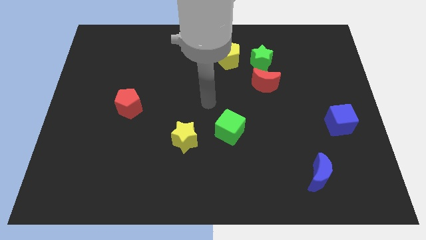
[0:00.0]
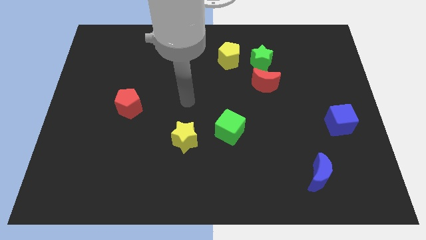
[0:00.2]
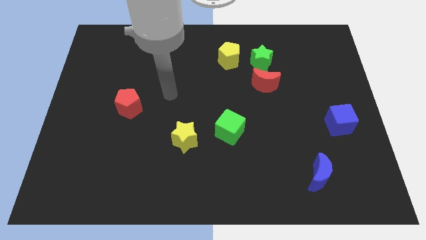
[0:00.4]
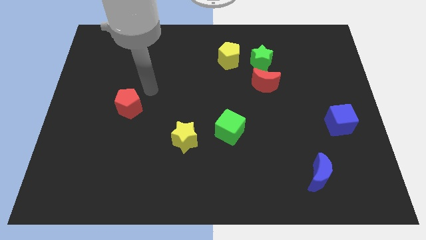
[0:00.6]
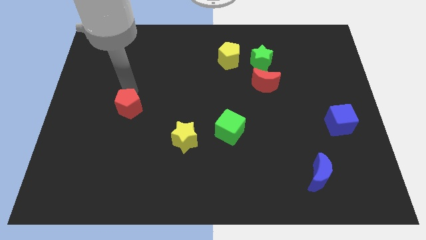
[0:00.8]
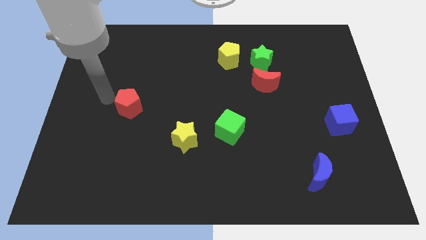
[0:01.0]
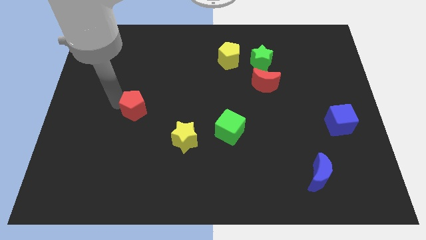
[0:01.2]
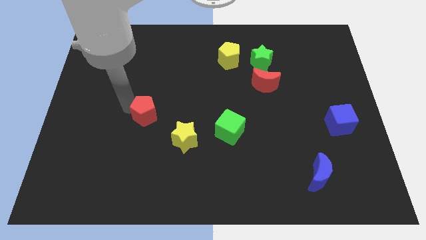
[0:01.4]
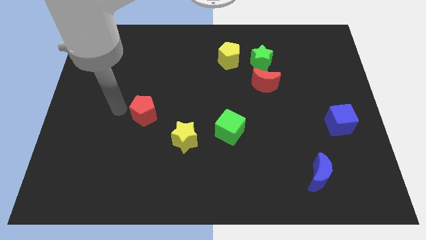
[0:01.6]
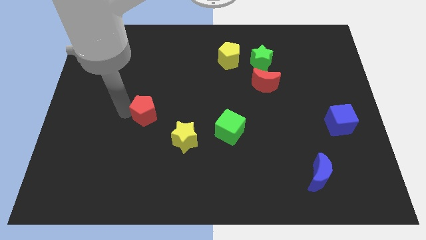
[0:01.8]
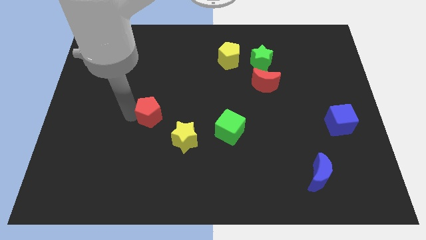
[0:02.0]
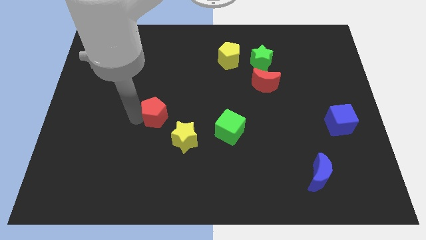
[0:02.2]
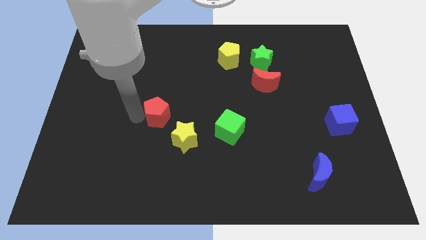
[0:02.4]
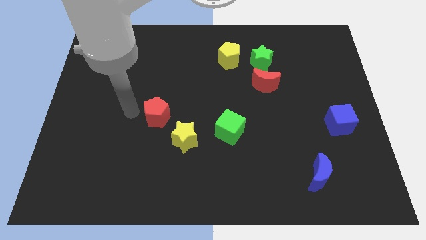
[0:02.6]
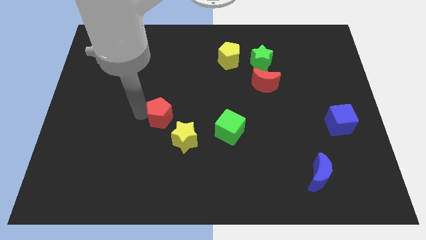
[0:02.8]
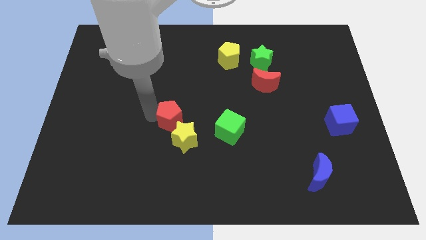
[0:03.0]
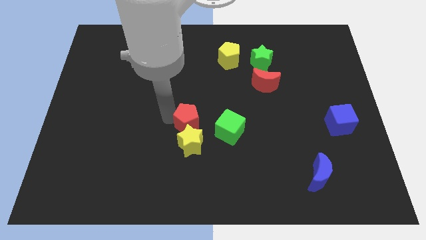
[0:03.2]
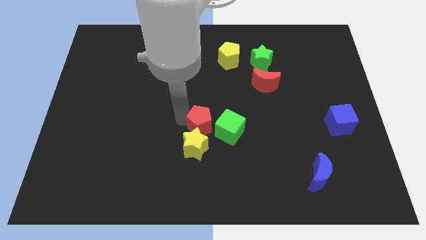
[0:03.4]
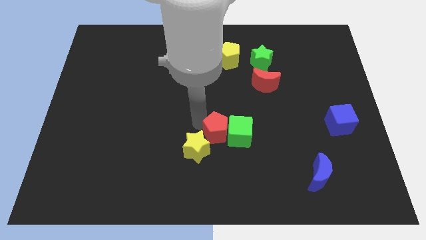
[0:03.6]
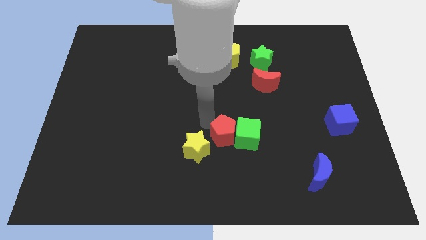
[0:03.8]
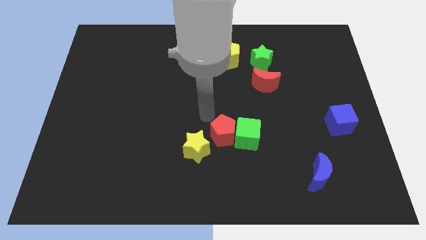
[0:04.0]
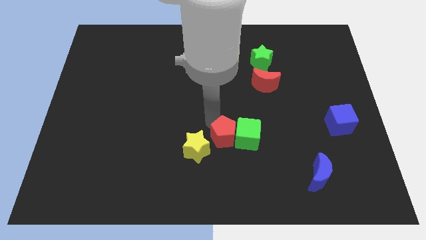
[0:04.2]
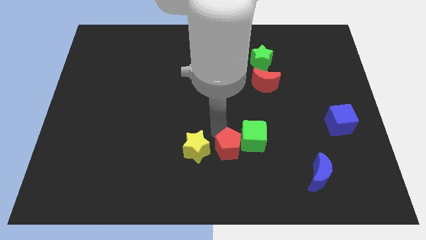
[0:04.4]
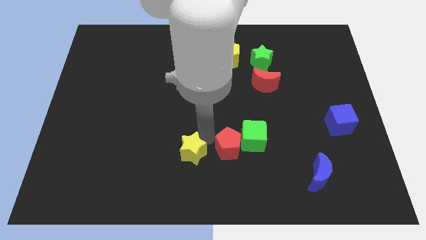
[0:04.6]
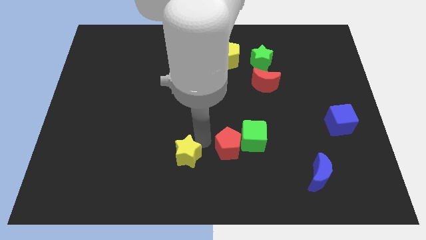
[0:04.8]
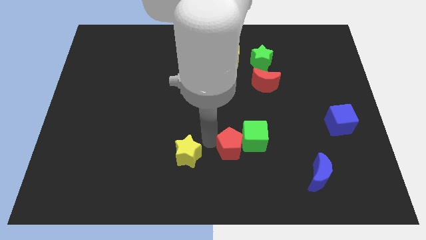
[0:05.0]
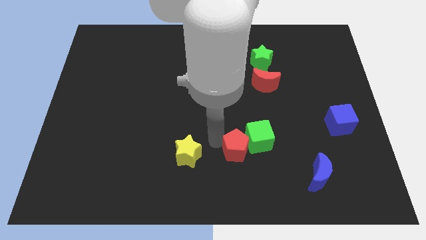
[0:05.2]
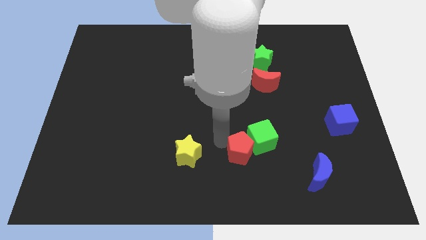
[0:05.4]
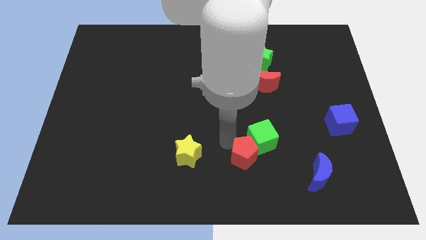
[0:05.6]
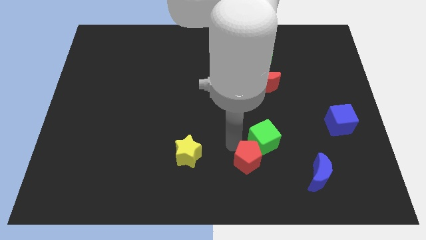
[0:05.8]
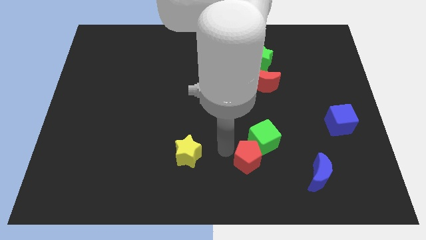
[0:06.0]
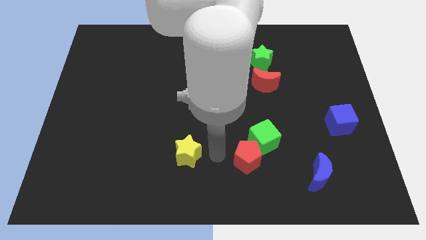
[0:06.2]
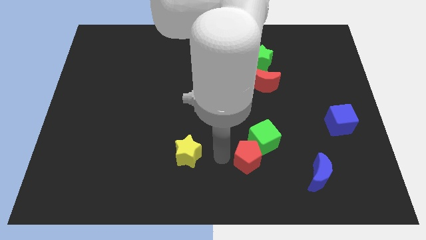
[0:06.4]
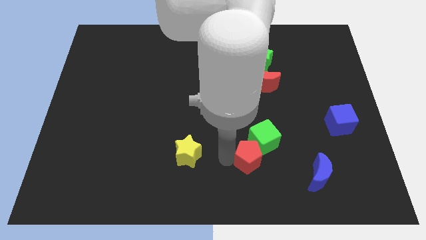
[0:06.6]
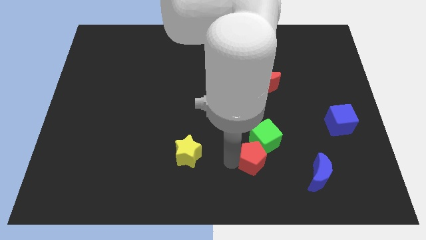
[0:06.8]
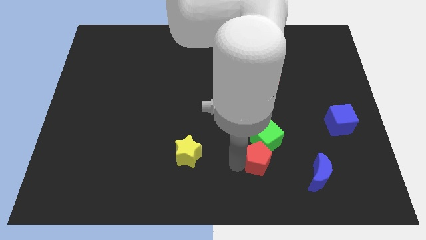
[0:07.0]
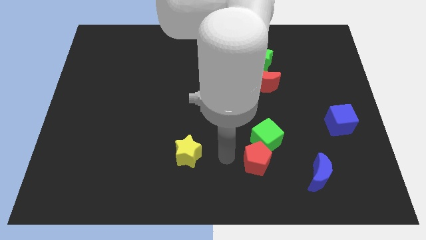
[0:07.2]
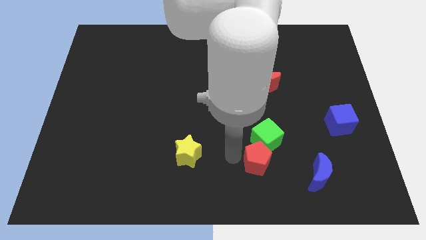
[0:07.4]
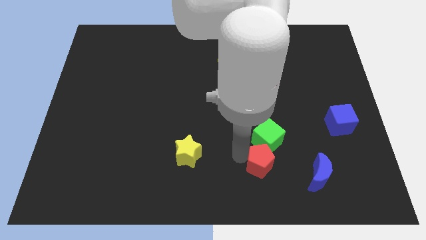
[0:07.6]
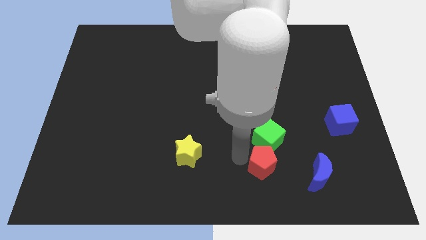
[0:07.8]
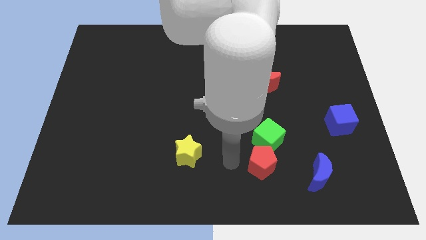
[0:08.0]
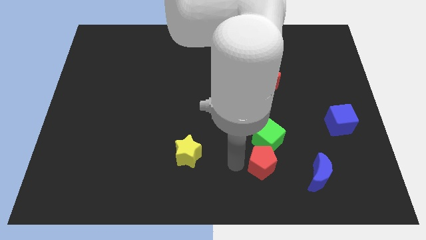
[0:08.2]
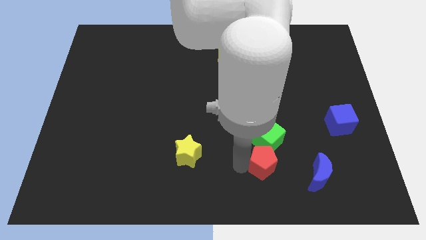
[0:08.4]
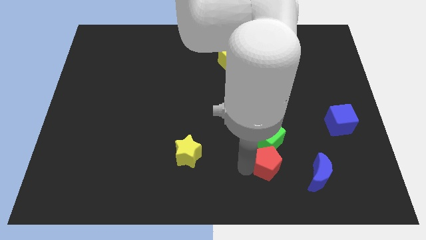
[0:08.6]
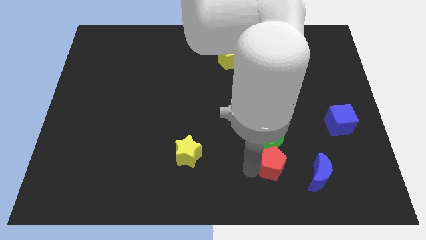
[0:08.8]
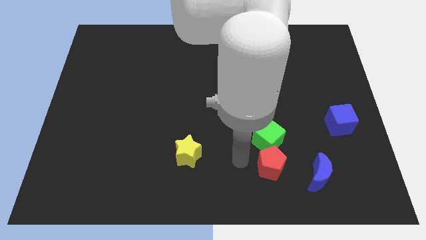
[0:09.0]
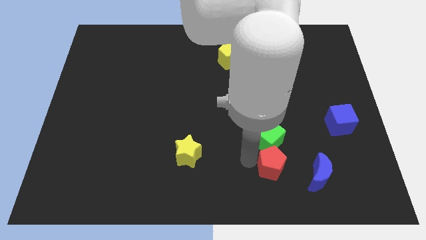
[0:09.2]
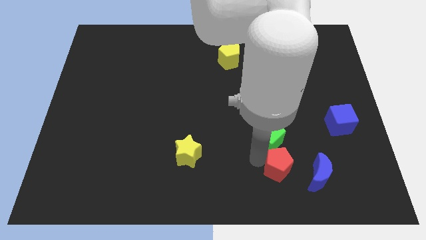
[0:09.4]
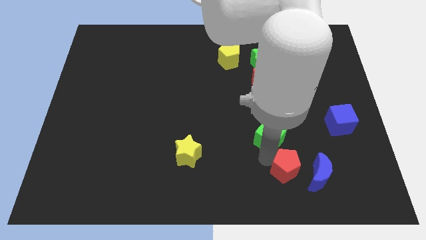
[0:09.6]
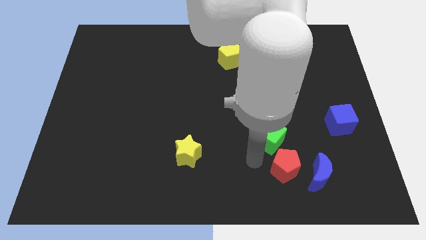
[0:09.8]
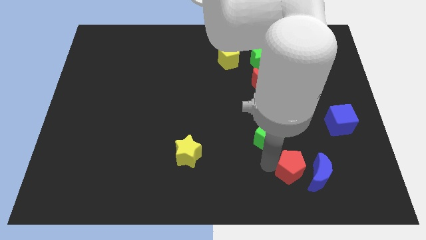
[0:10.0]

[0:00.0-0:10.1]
put the red pentagon close to the blue moon

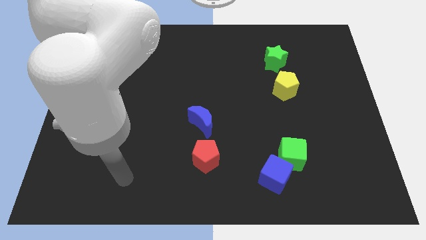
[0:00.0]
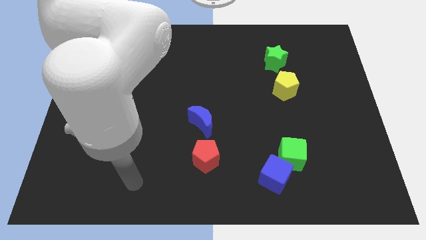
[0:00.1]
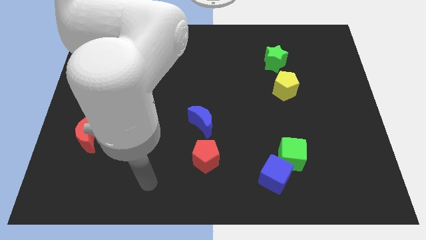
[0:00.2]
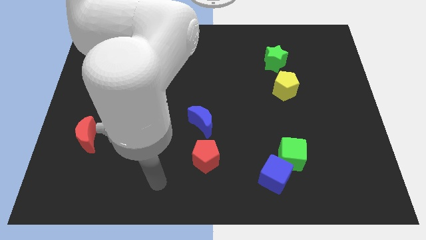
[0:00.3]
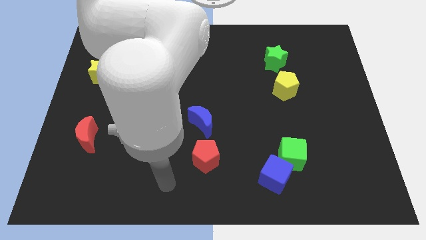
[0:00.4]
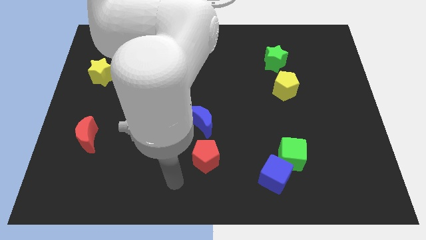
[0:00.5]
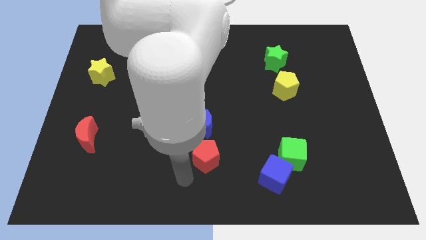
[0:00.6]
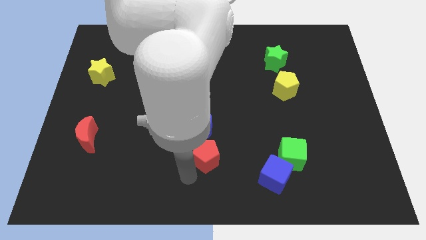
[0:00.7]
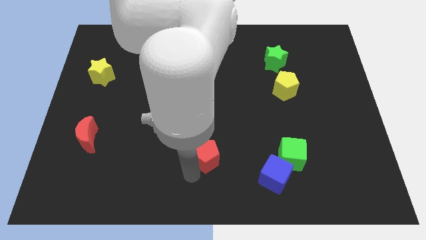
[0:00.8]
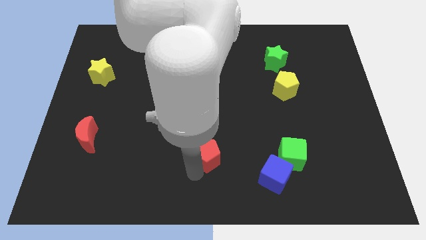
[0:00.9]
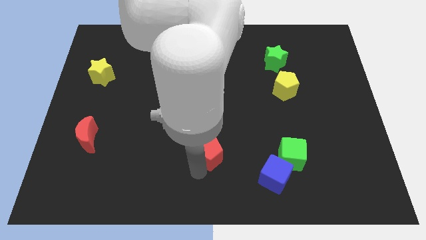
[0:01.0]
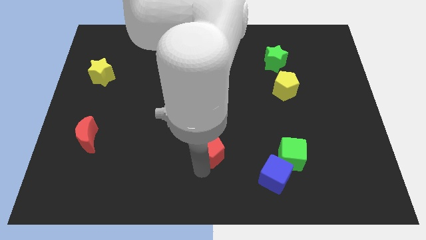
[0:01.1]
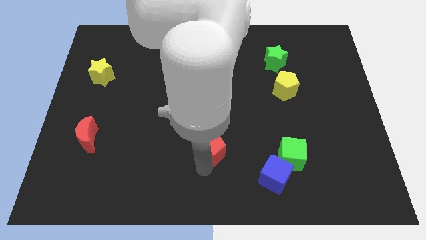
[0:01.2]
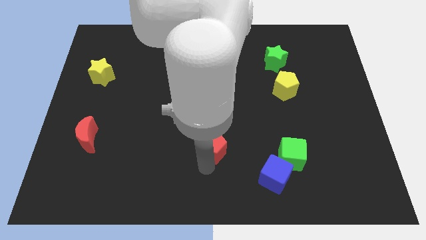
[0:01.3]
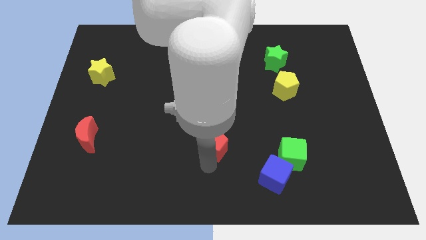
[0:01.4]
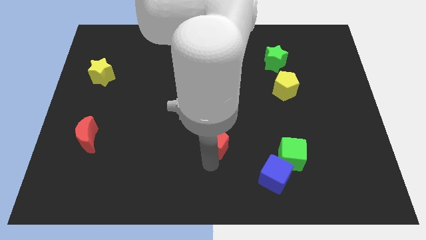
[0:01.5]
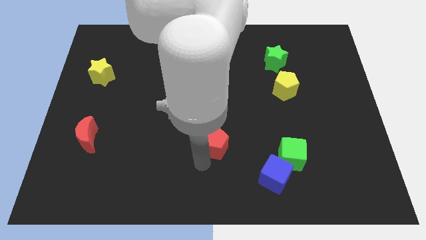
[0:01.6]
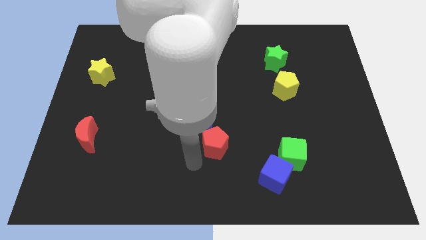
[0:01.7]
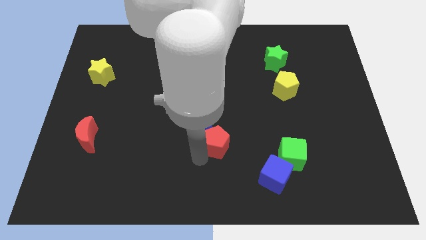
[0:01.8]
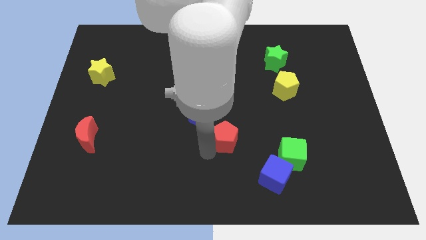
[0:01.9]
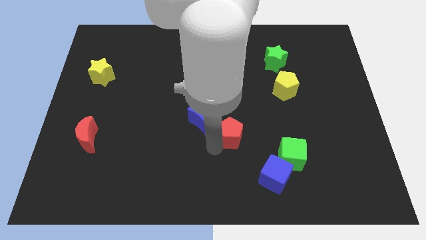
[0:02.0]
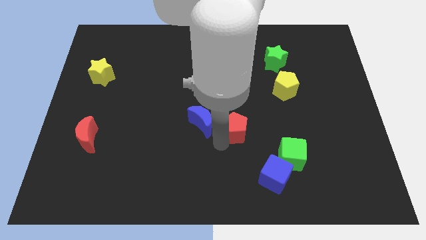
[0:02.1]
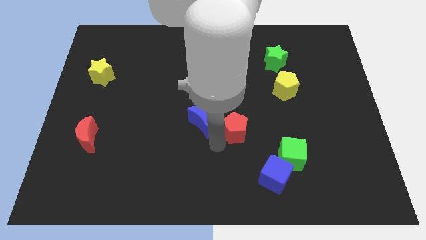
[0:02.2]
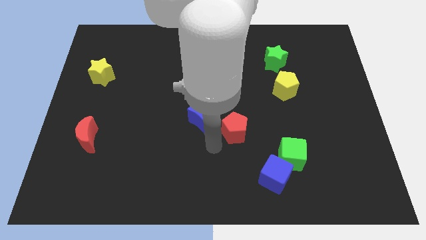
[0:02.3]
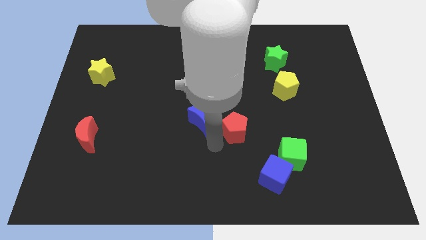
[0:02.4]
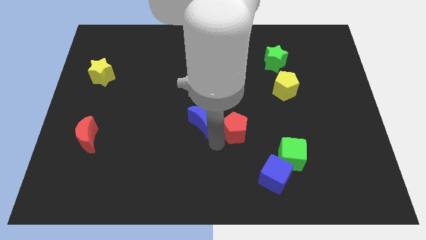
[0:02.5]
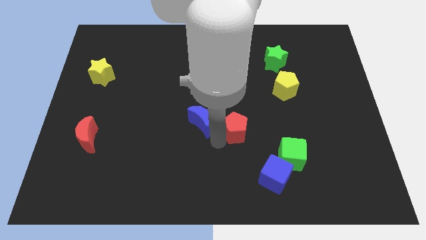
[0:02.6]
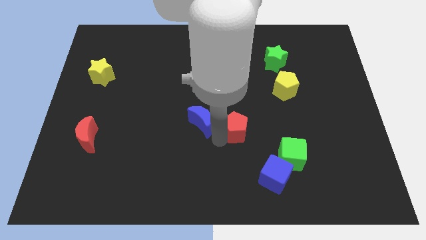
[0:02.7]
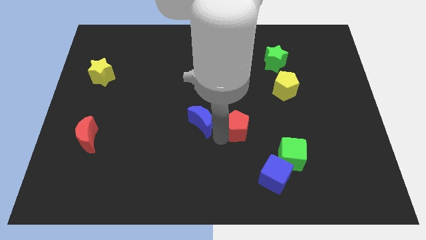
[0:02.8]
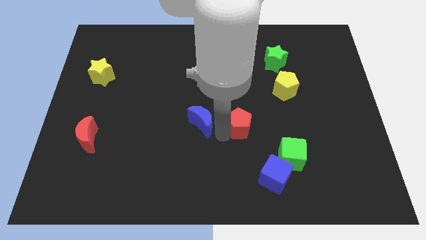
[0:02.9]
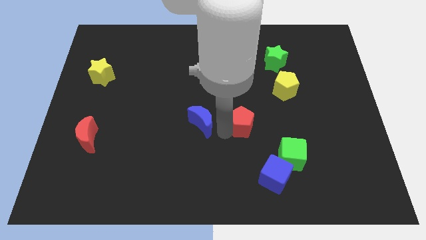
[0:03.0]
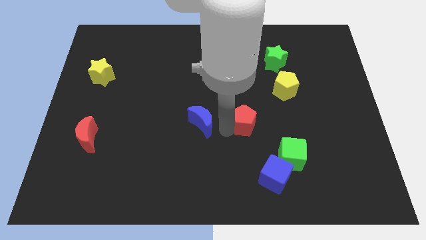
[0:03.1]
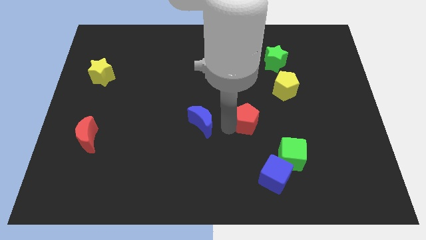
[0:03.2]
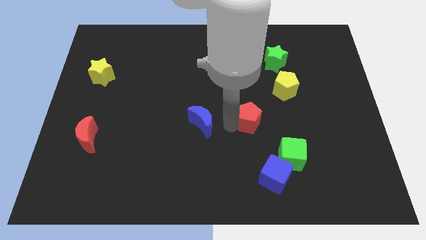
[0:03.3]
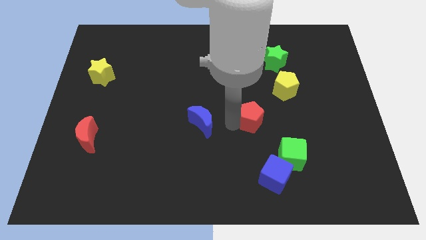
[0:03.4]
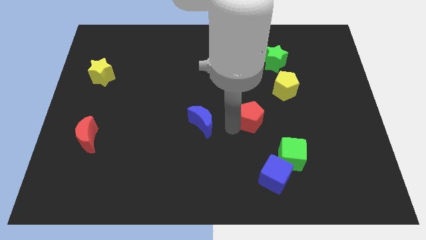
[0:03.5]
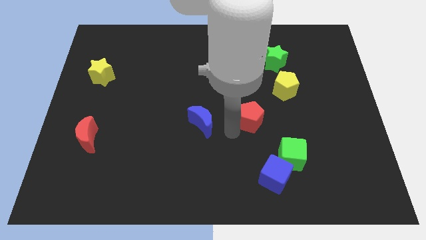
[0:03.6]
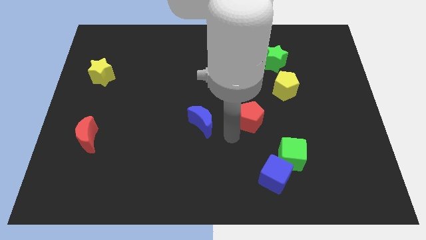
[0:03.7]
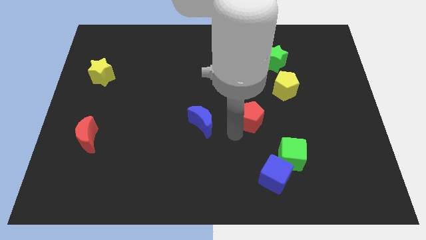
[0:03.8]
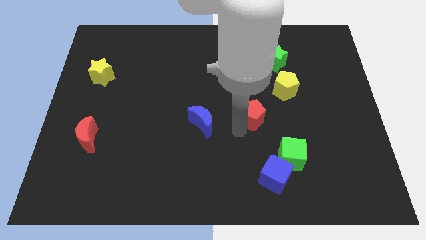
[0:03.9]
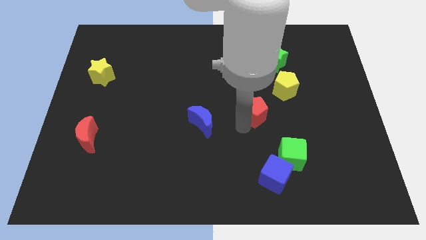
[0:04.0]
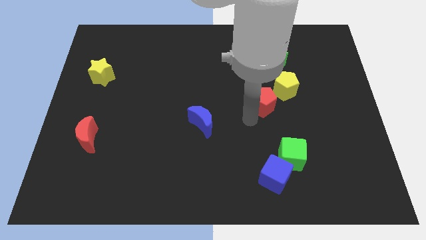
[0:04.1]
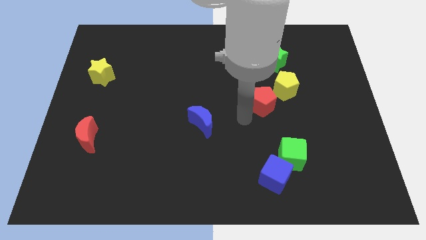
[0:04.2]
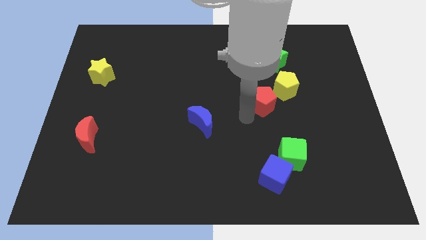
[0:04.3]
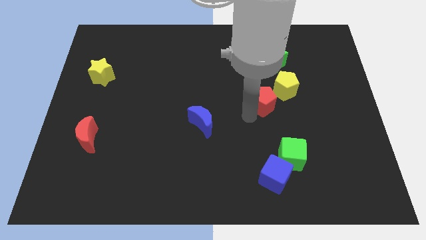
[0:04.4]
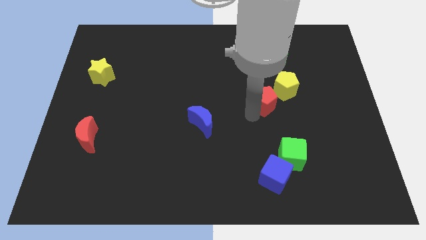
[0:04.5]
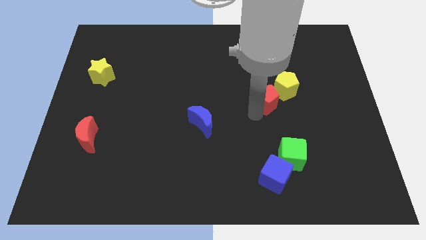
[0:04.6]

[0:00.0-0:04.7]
put the red pentagon towards the yellow pentagon
